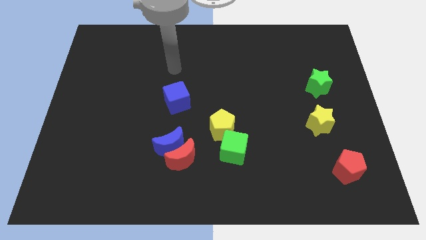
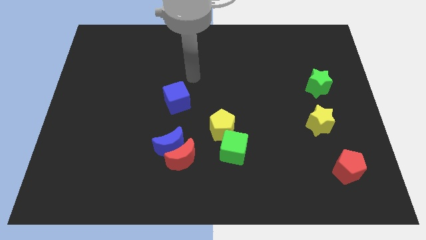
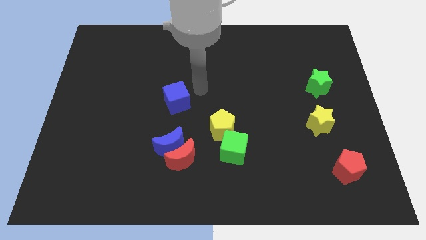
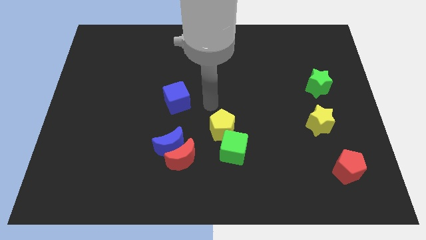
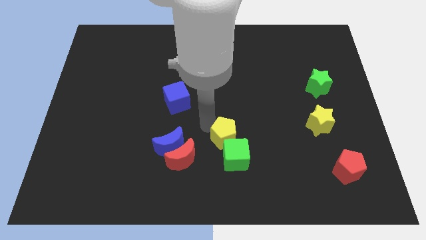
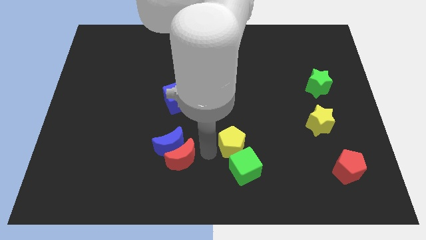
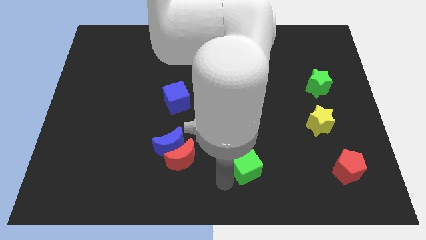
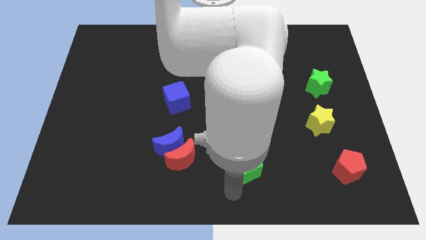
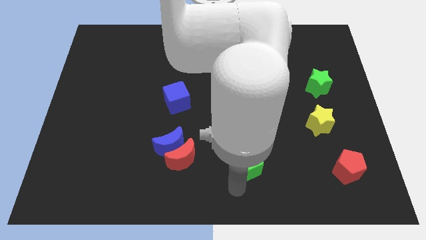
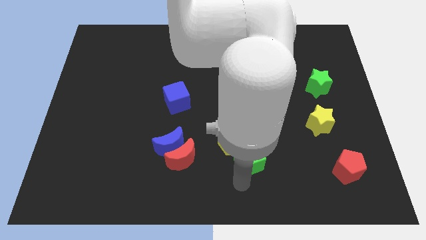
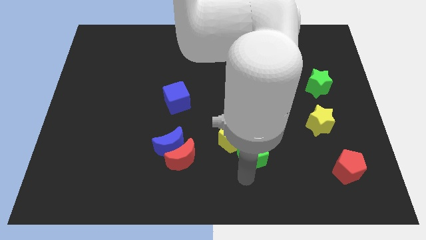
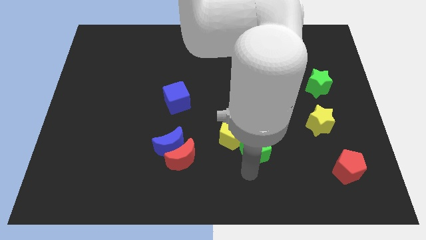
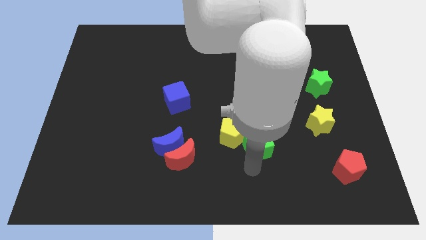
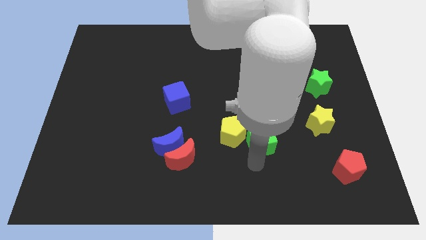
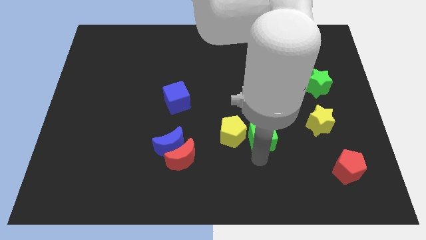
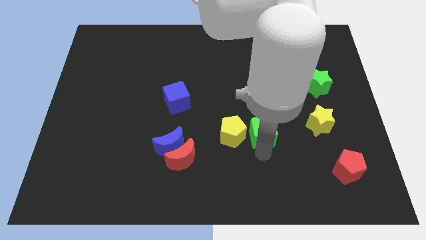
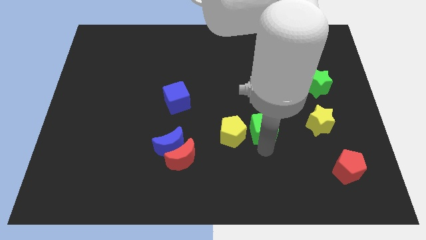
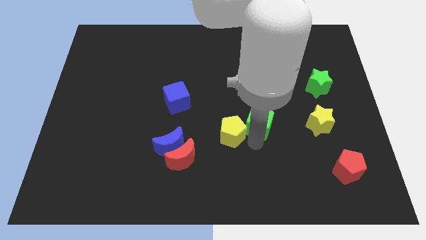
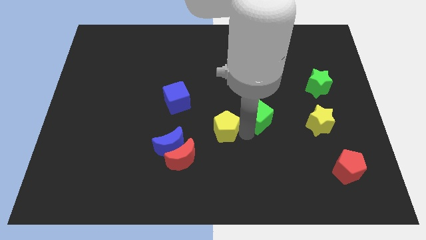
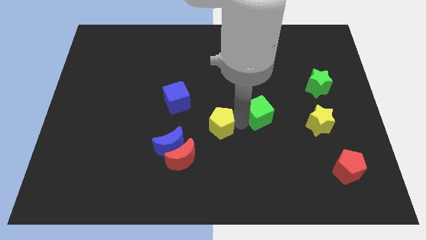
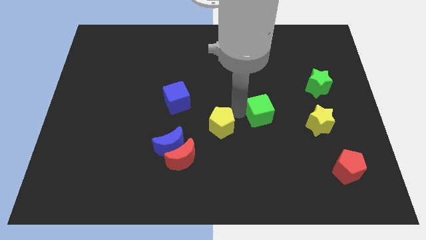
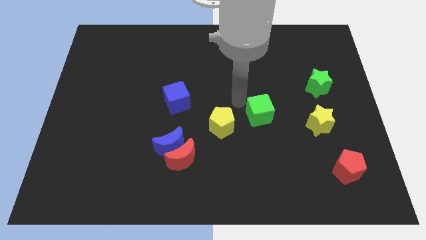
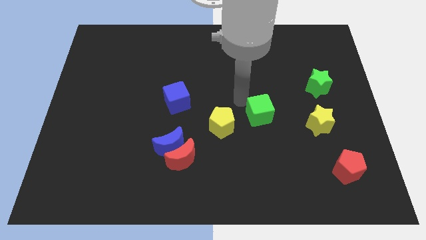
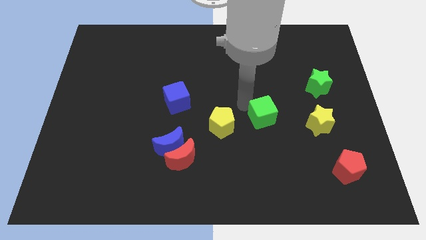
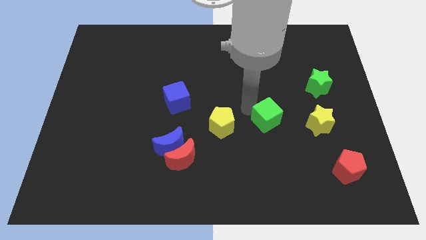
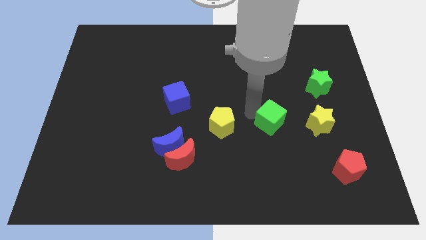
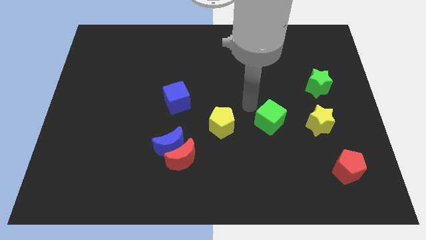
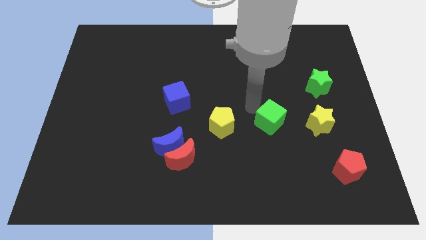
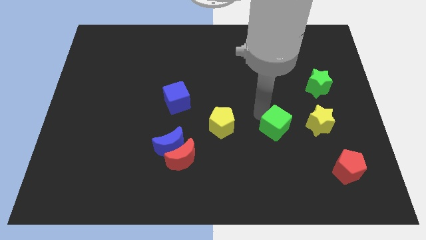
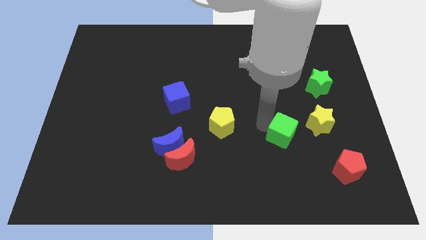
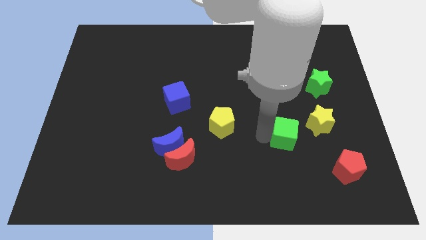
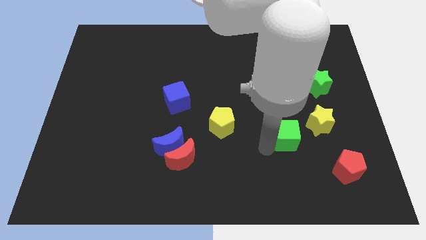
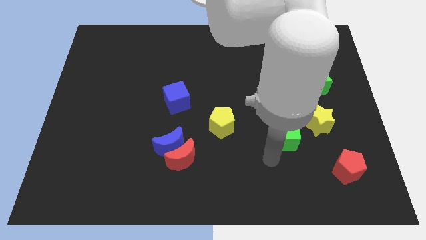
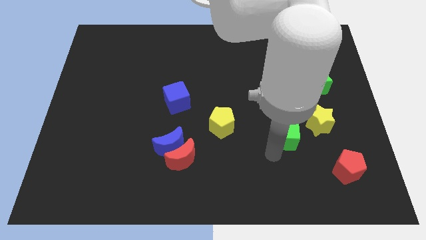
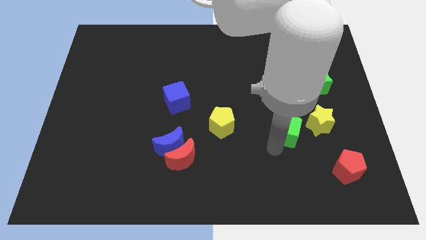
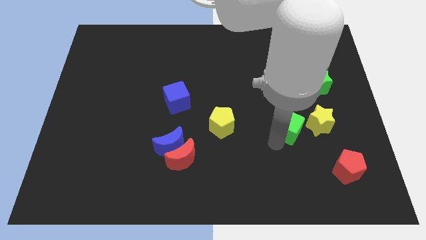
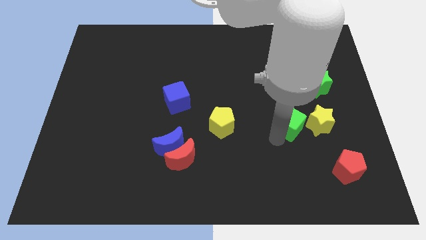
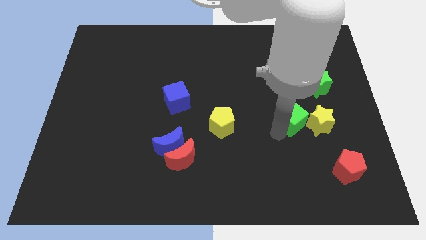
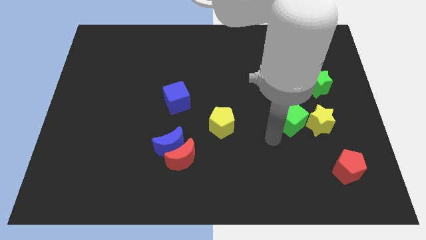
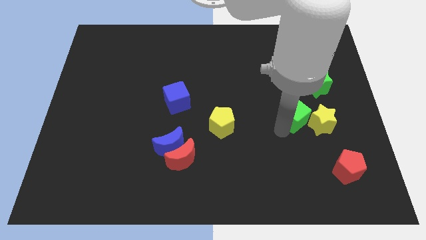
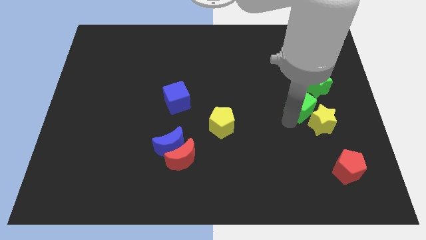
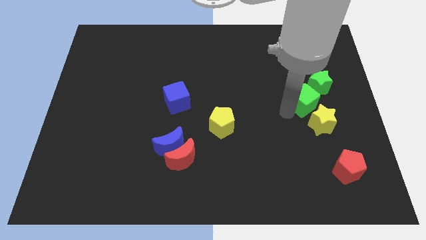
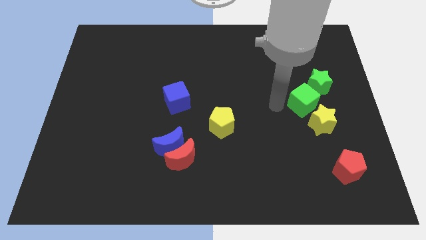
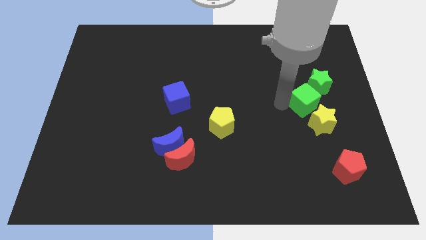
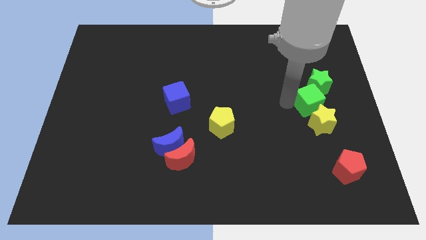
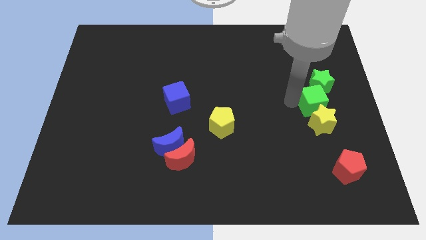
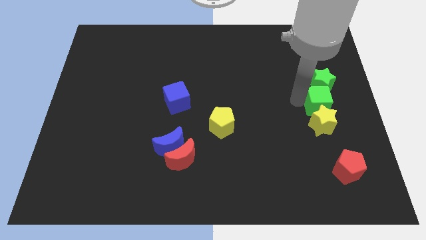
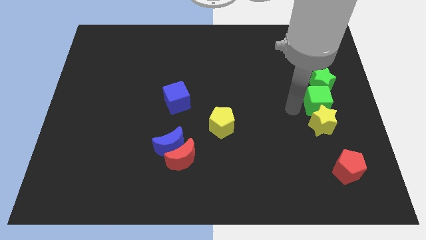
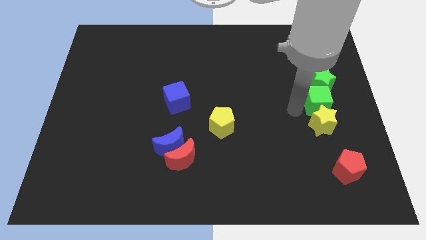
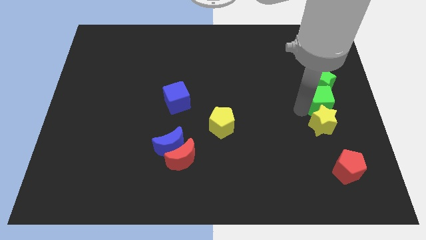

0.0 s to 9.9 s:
slide the green cube to the center right

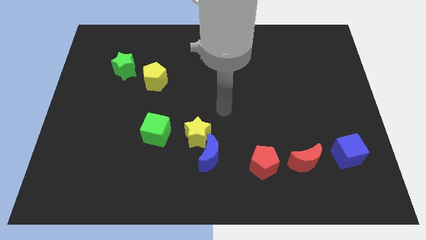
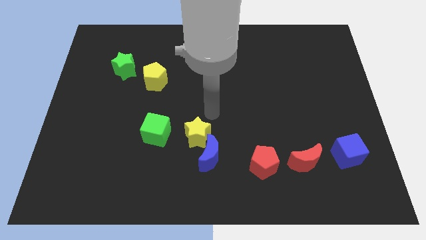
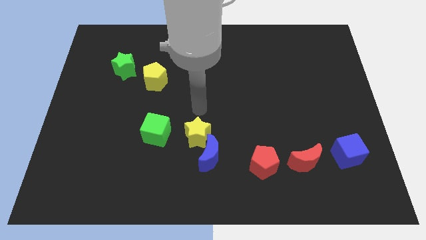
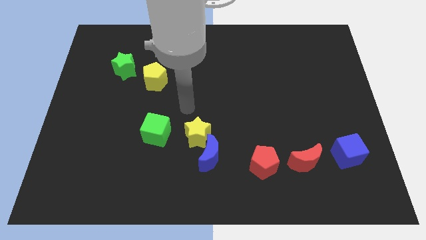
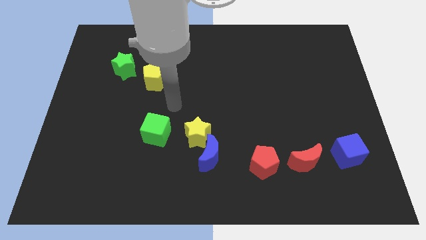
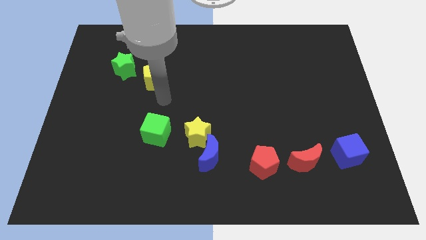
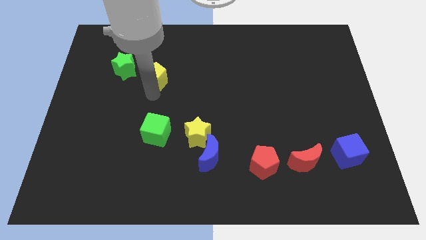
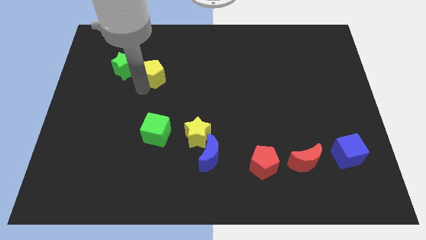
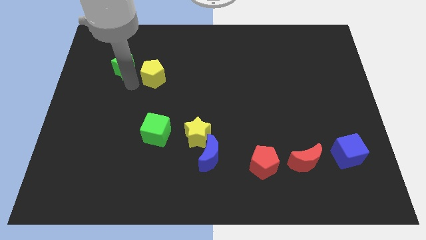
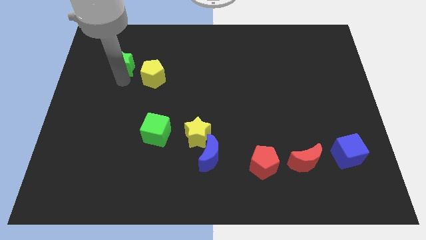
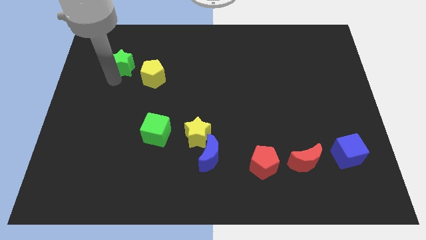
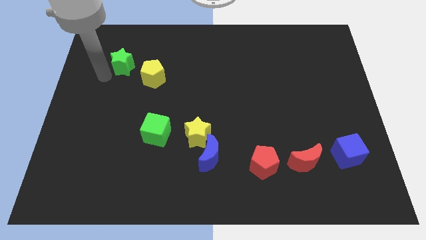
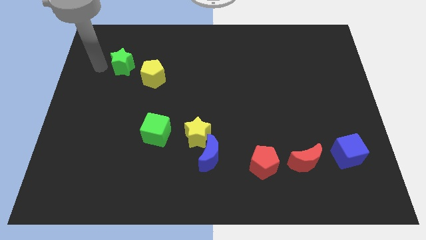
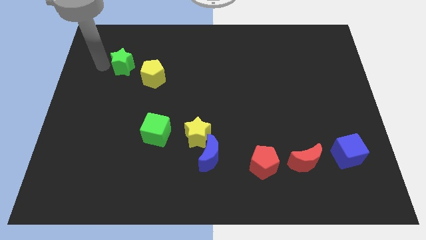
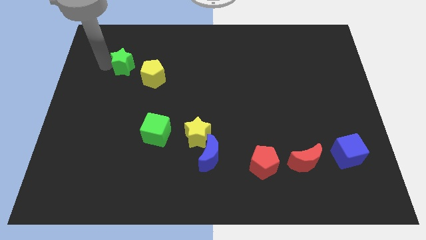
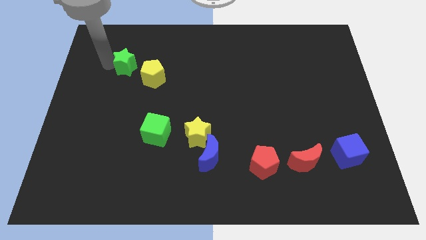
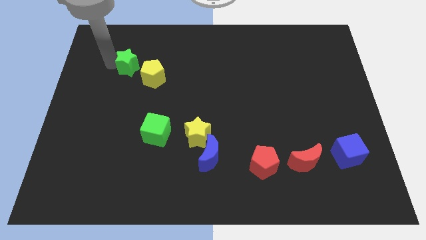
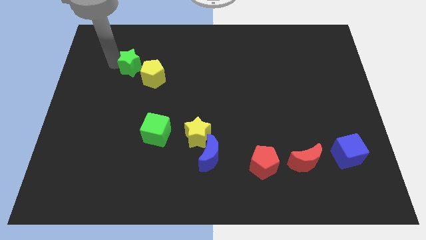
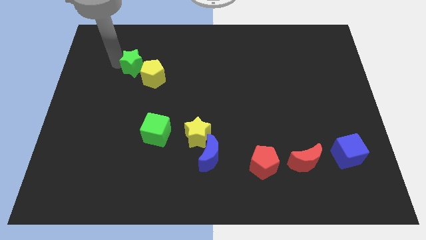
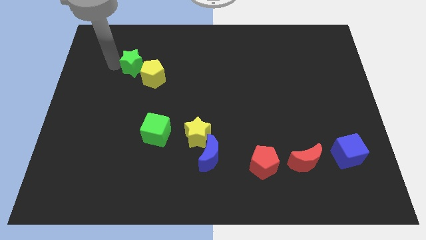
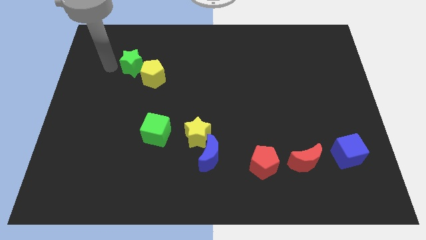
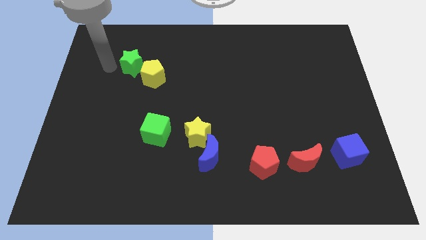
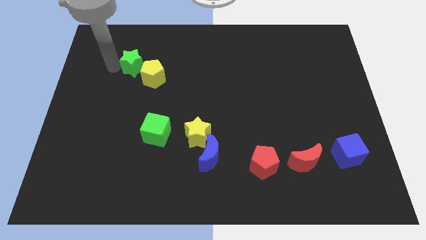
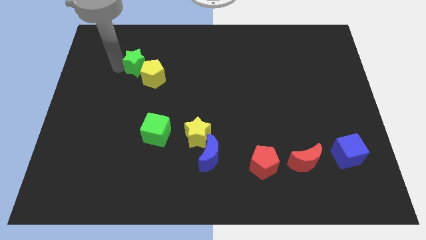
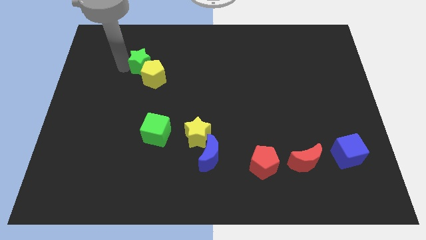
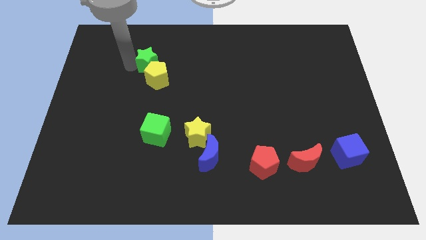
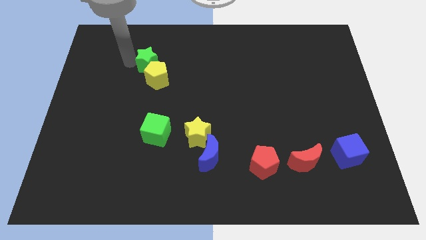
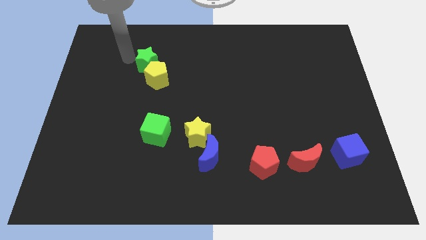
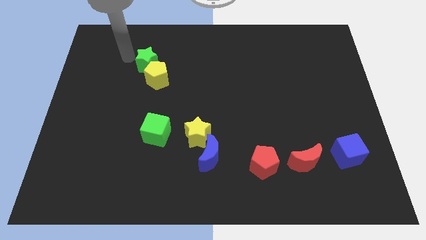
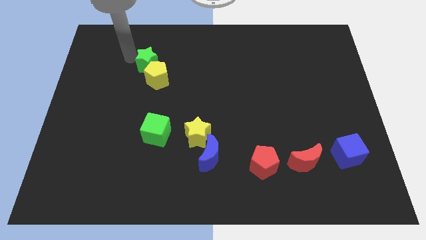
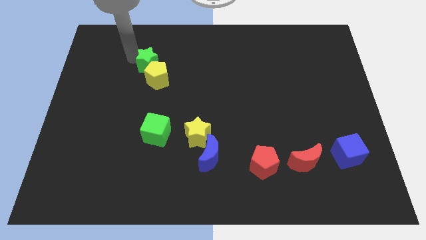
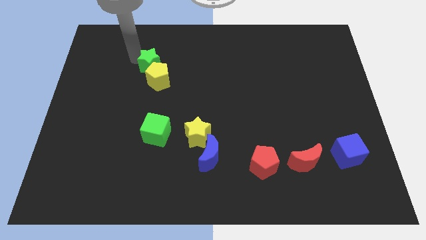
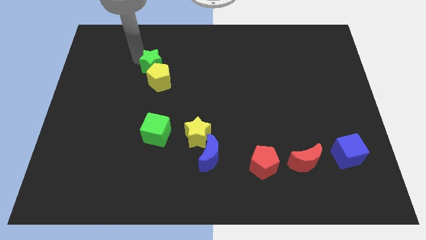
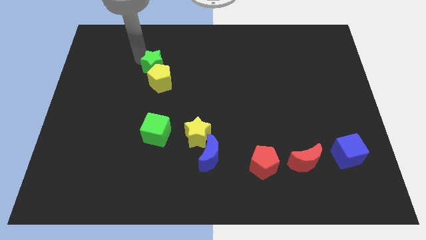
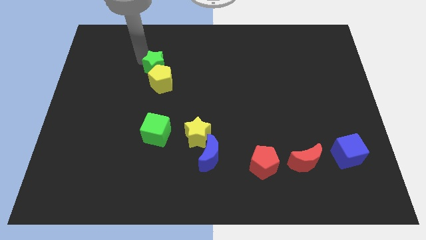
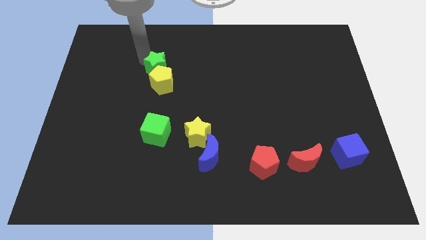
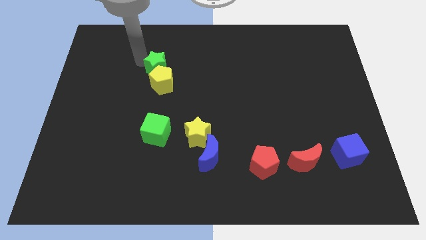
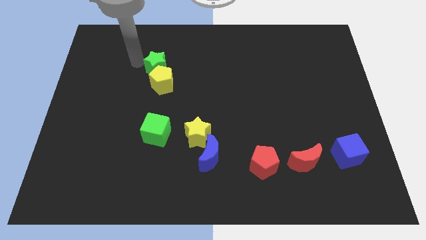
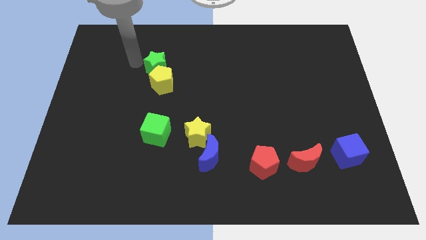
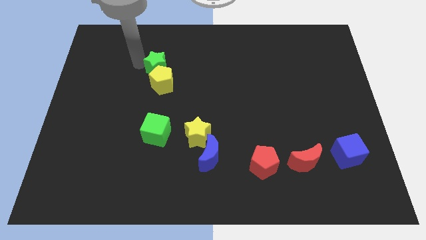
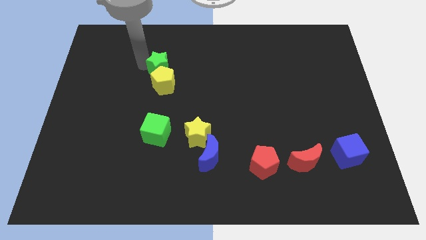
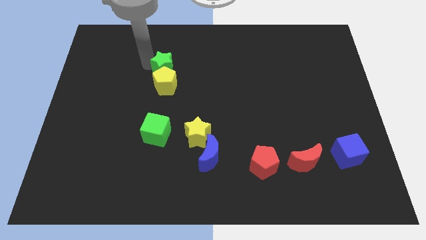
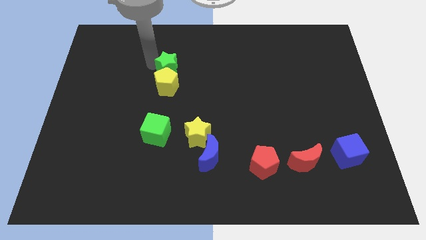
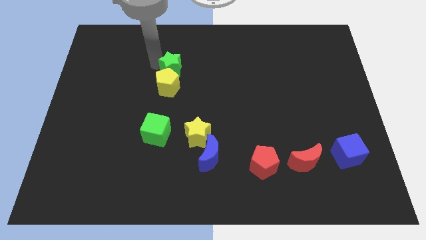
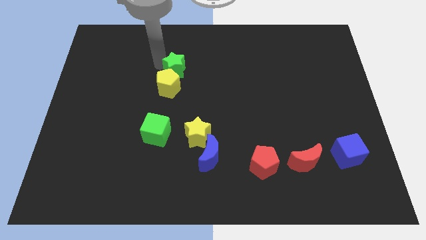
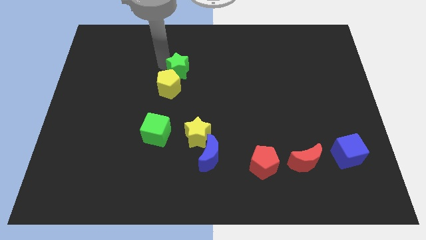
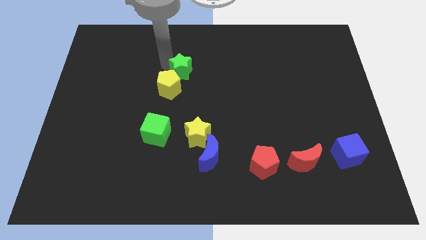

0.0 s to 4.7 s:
push the green star to the middle
